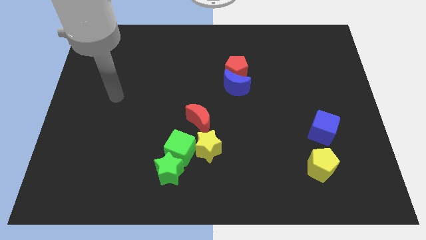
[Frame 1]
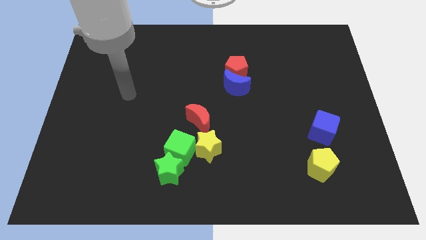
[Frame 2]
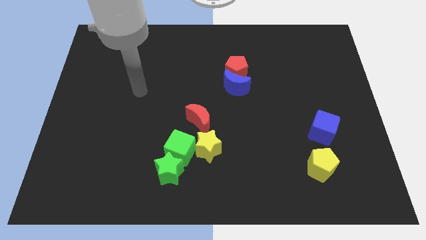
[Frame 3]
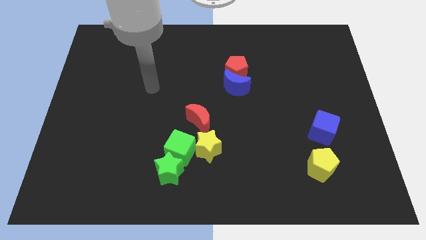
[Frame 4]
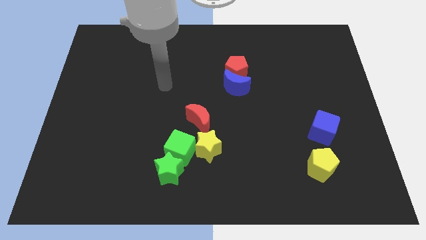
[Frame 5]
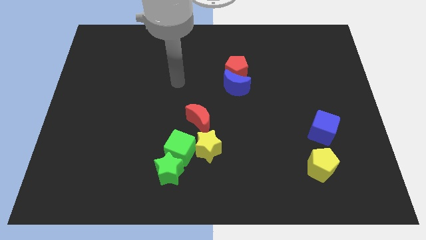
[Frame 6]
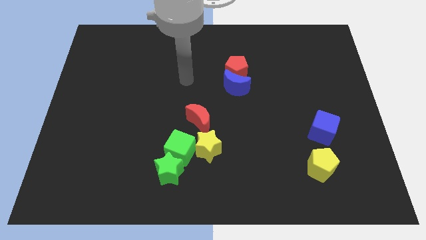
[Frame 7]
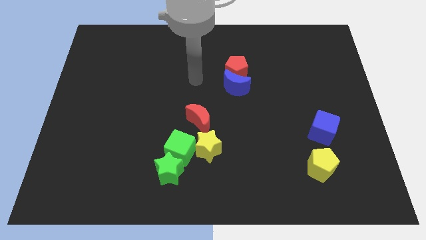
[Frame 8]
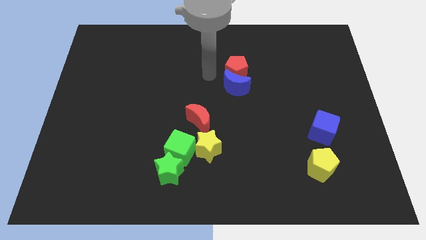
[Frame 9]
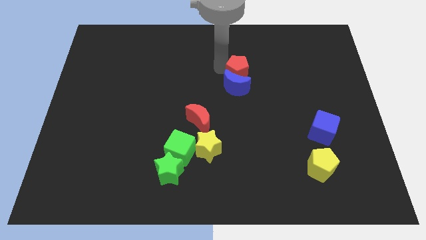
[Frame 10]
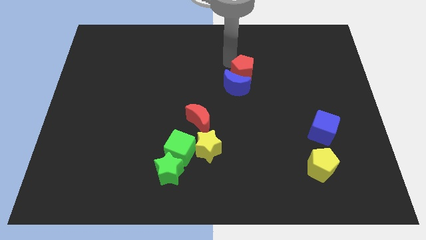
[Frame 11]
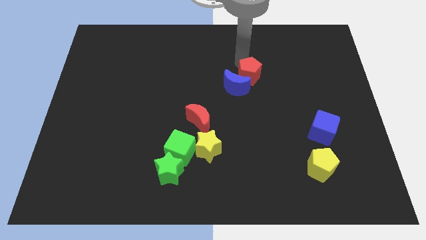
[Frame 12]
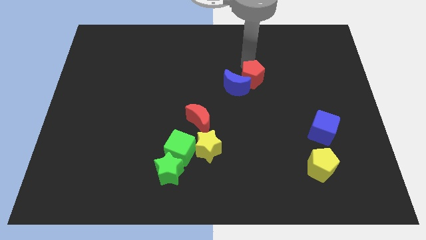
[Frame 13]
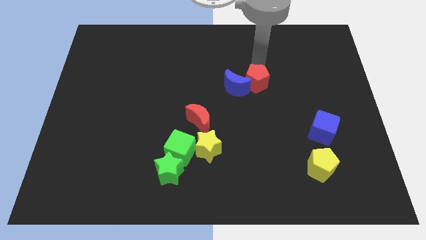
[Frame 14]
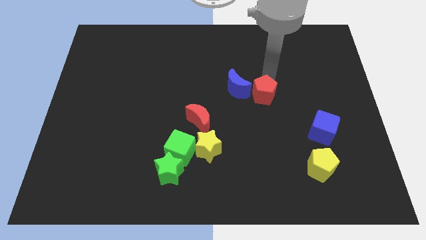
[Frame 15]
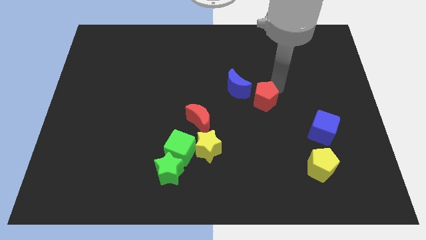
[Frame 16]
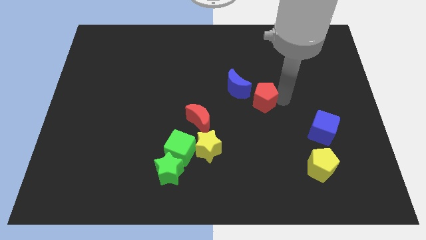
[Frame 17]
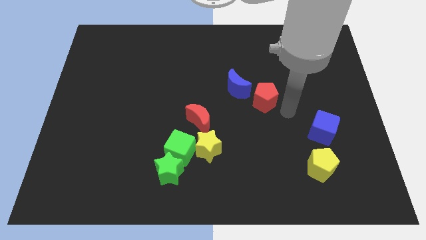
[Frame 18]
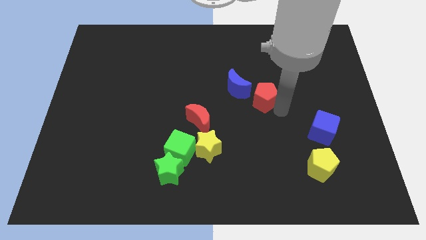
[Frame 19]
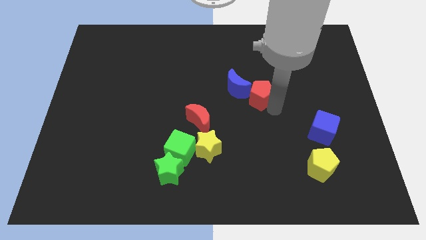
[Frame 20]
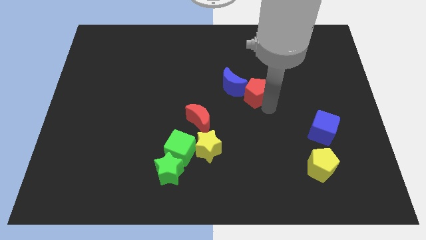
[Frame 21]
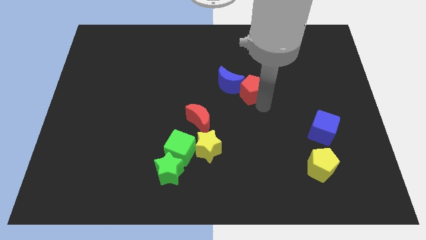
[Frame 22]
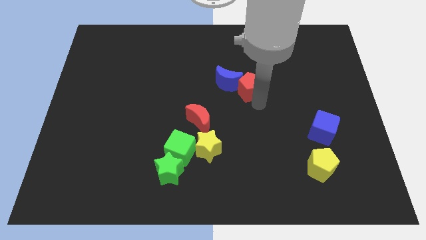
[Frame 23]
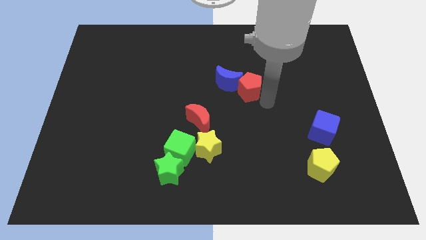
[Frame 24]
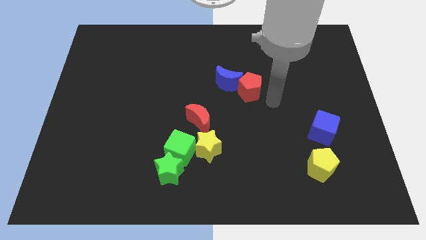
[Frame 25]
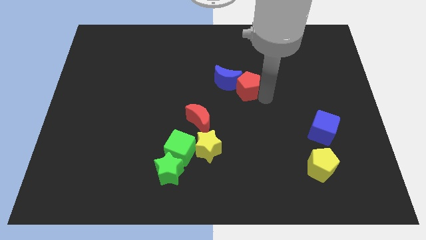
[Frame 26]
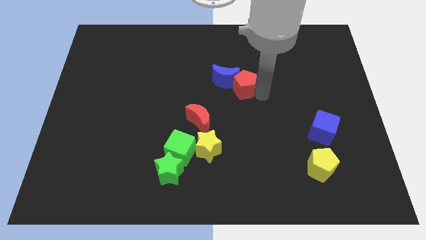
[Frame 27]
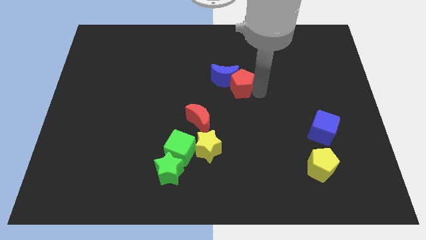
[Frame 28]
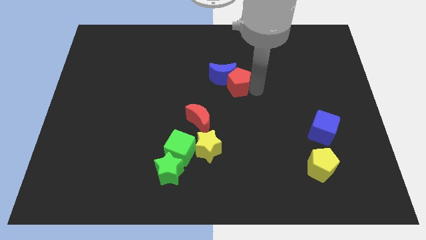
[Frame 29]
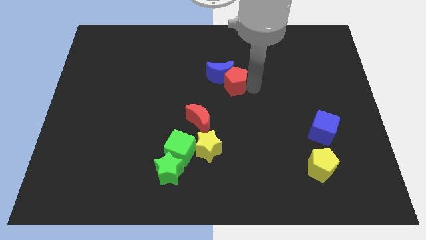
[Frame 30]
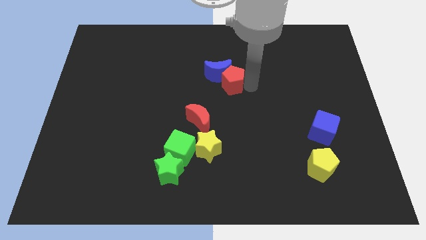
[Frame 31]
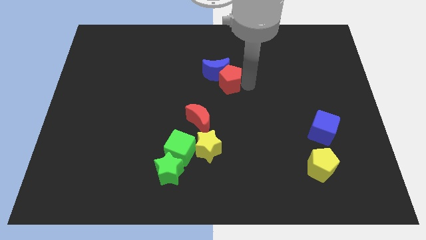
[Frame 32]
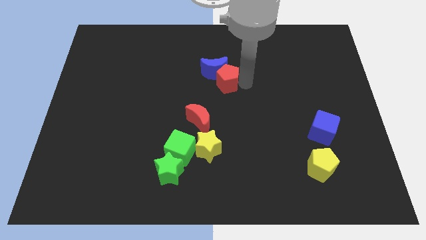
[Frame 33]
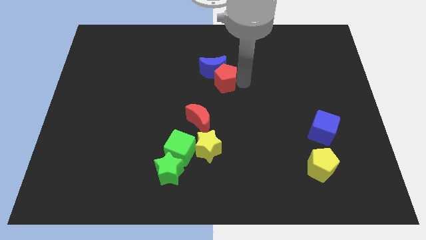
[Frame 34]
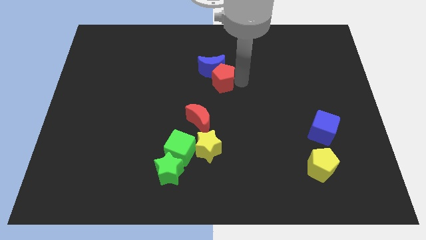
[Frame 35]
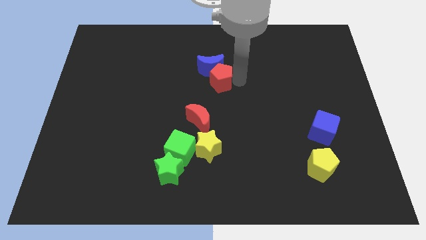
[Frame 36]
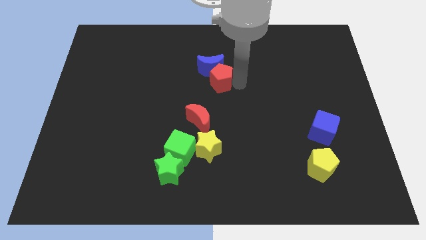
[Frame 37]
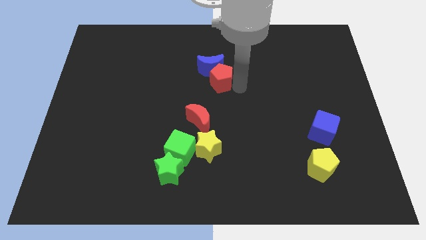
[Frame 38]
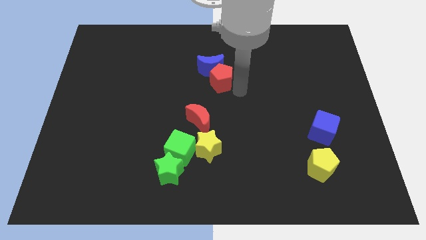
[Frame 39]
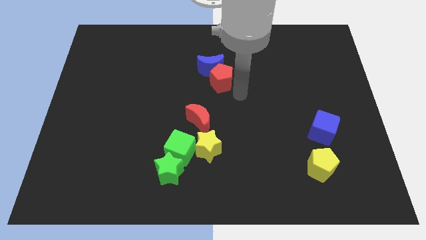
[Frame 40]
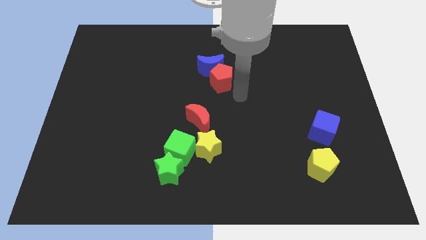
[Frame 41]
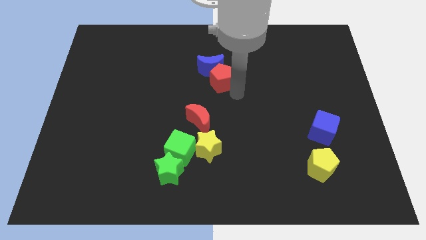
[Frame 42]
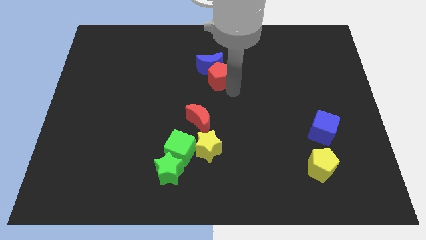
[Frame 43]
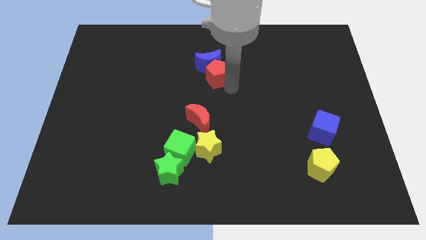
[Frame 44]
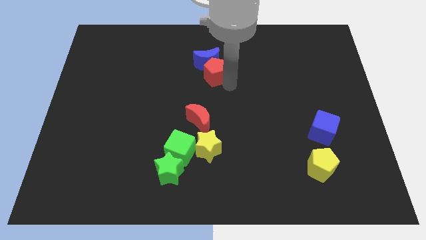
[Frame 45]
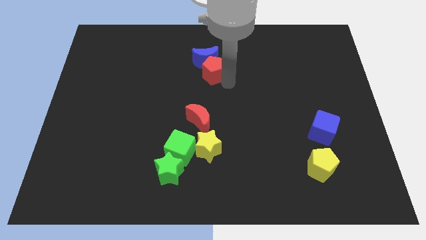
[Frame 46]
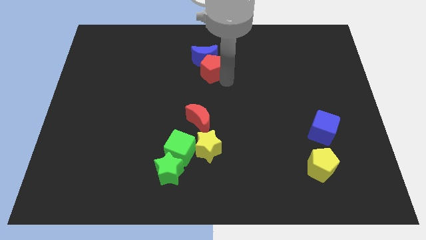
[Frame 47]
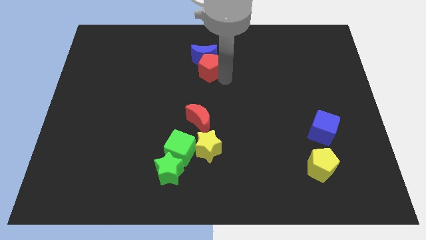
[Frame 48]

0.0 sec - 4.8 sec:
slightly move the red pentagon to the left

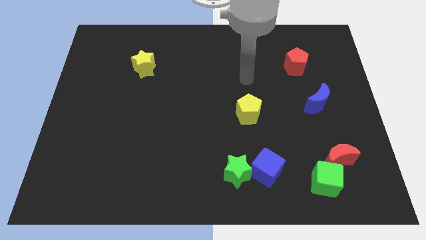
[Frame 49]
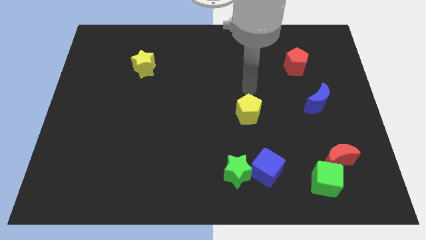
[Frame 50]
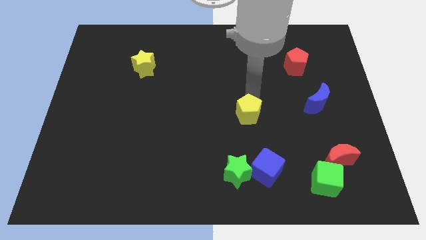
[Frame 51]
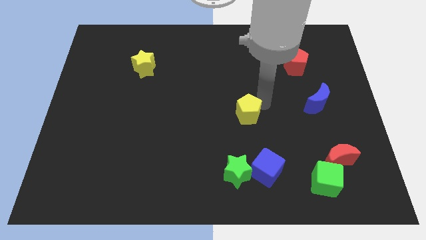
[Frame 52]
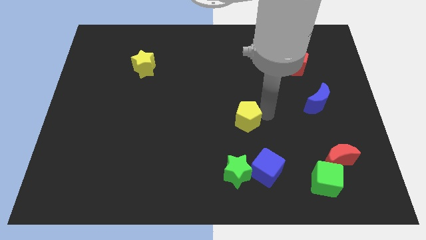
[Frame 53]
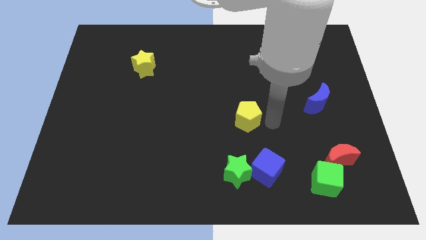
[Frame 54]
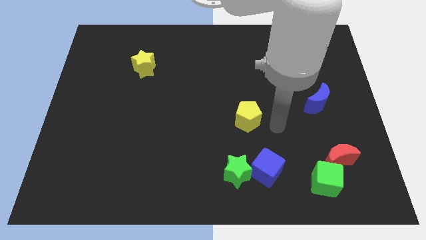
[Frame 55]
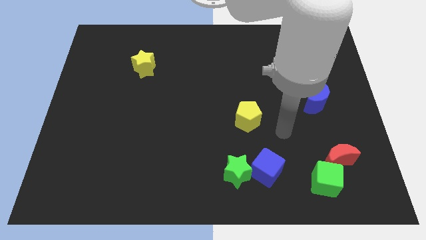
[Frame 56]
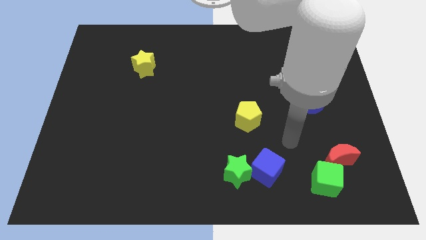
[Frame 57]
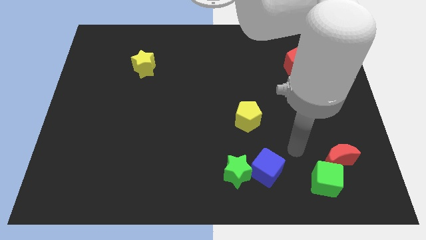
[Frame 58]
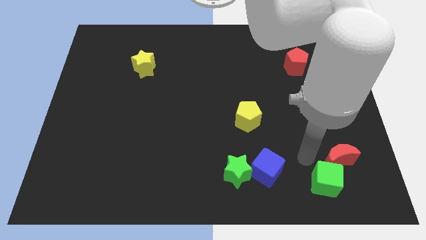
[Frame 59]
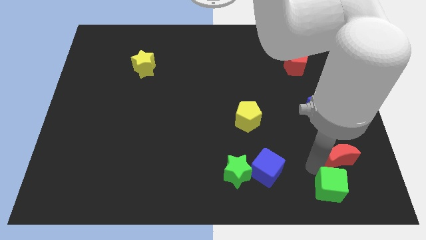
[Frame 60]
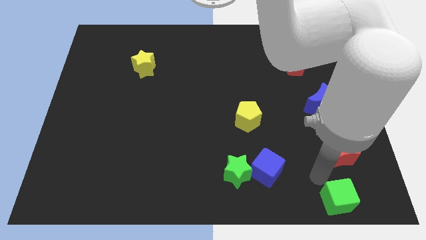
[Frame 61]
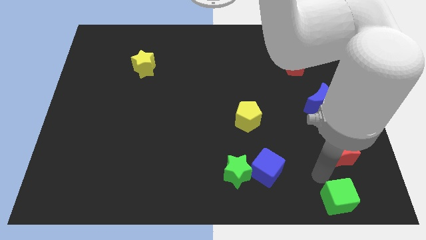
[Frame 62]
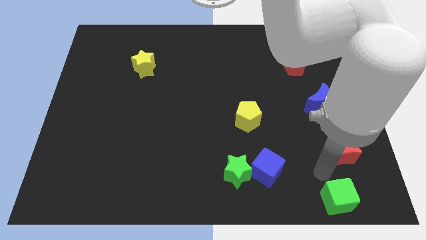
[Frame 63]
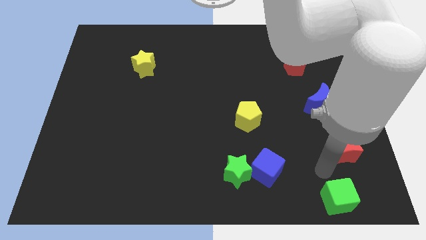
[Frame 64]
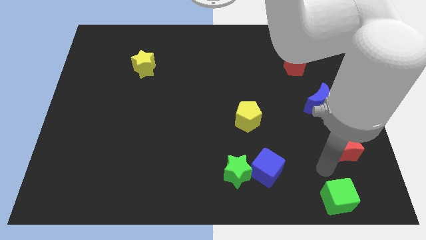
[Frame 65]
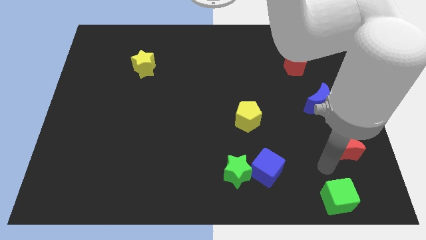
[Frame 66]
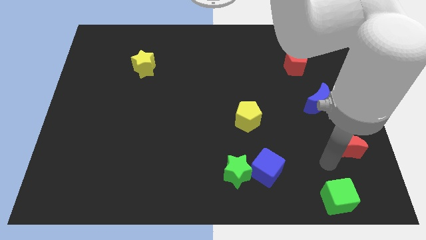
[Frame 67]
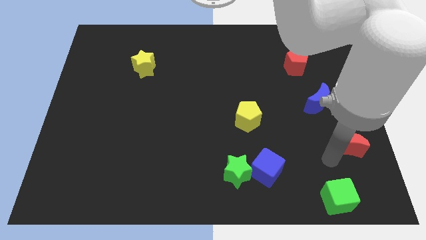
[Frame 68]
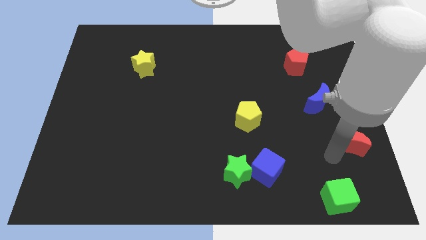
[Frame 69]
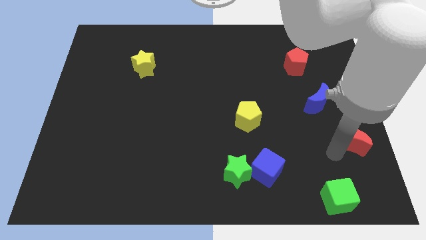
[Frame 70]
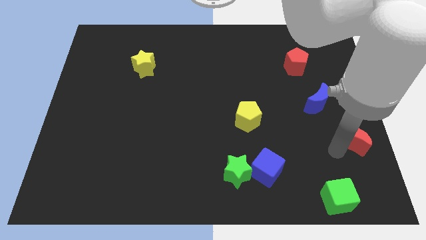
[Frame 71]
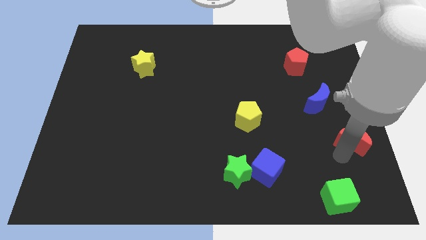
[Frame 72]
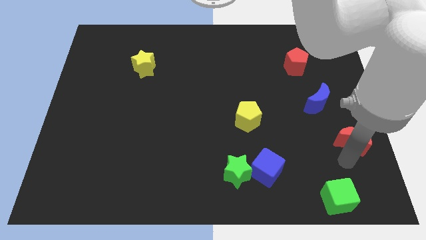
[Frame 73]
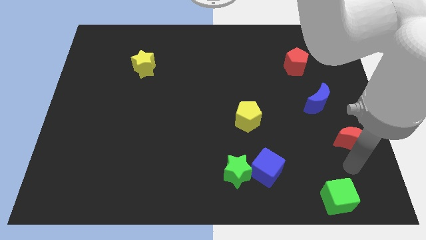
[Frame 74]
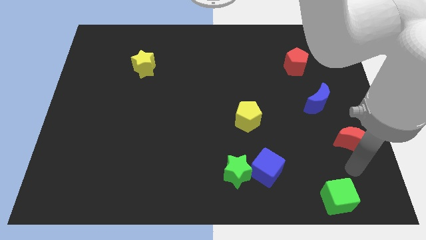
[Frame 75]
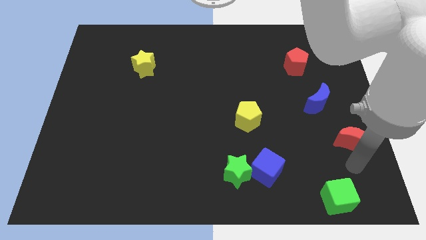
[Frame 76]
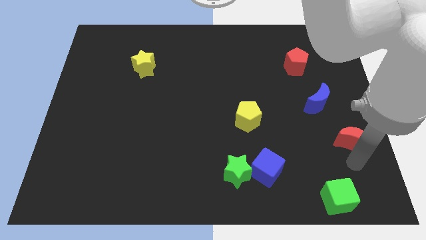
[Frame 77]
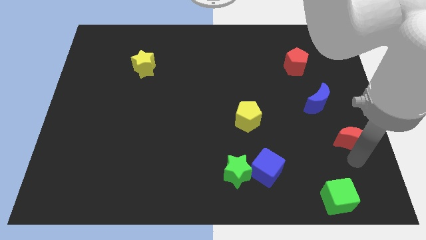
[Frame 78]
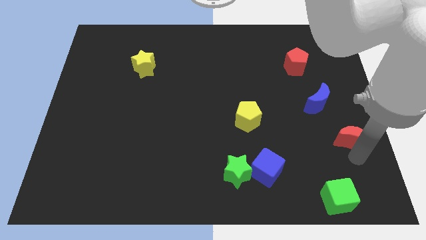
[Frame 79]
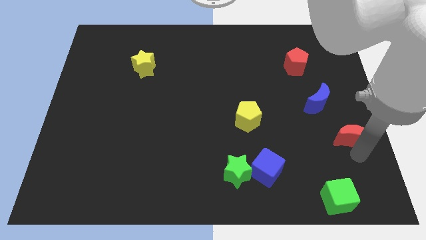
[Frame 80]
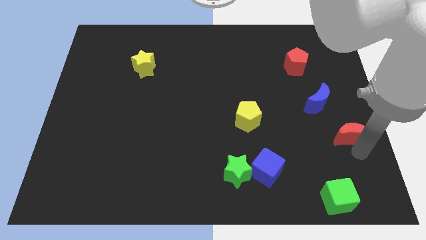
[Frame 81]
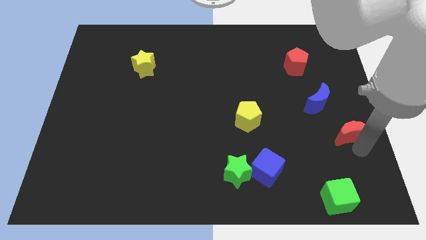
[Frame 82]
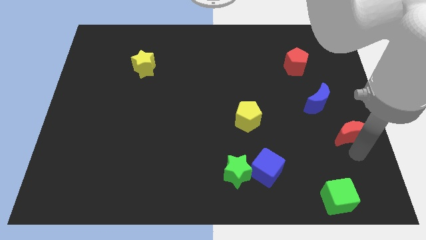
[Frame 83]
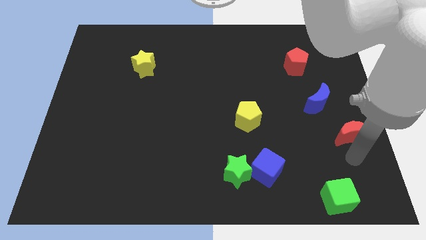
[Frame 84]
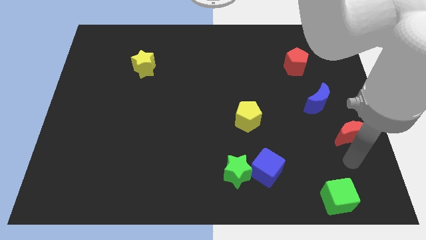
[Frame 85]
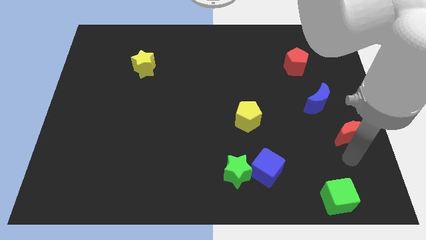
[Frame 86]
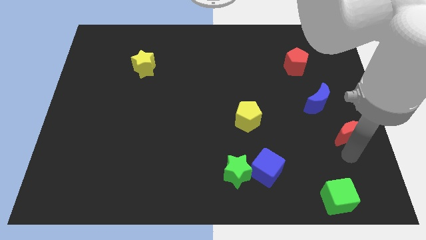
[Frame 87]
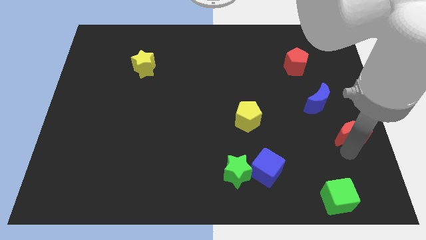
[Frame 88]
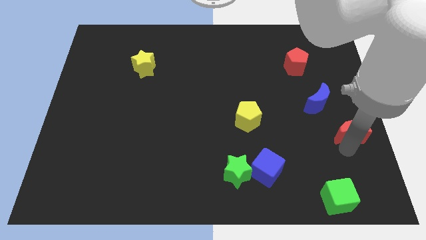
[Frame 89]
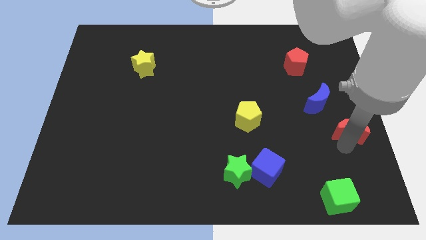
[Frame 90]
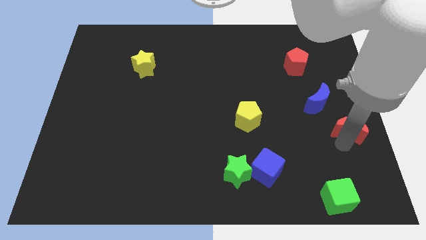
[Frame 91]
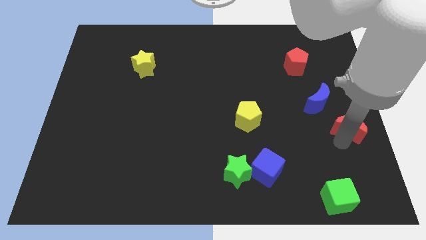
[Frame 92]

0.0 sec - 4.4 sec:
push the red moon up a bit
